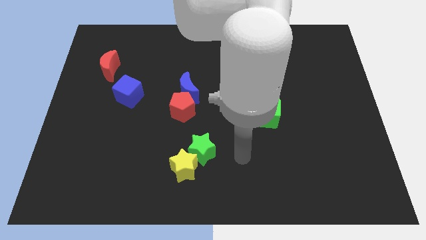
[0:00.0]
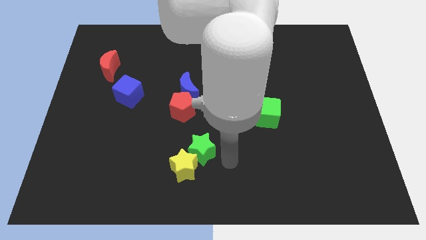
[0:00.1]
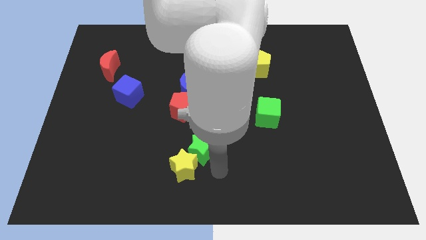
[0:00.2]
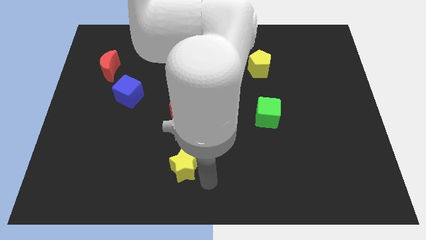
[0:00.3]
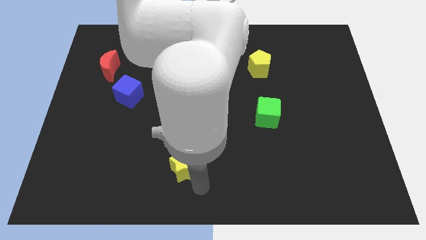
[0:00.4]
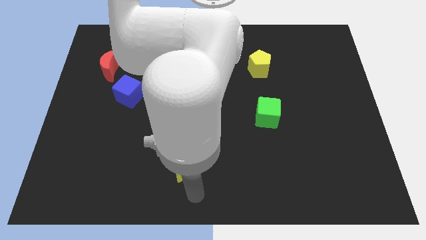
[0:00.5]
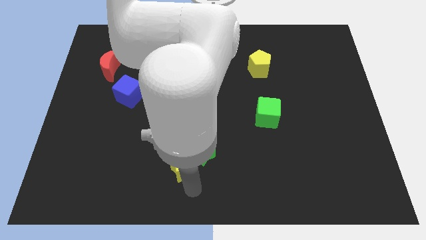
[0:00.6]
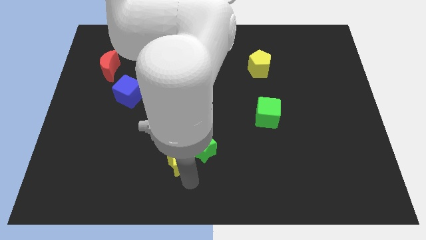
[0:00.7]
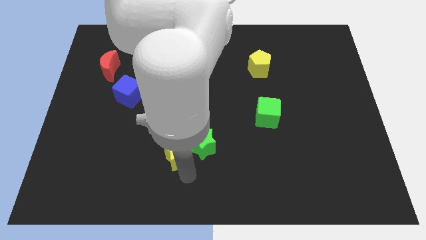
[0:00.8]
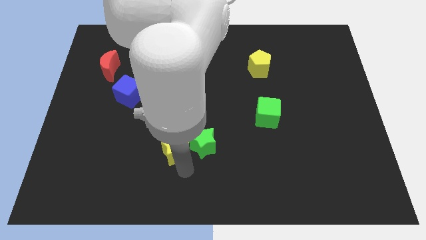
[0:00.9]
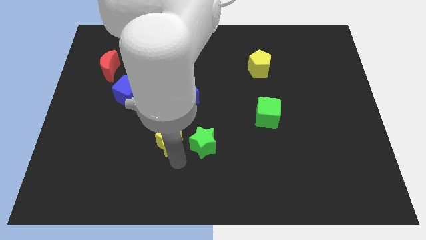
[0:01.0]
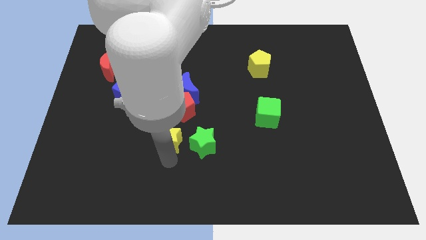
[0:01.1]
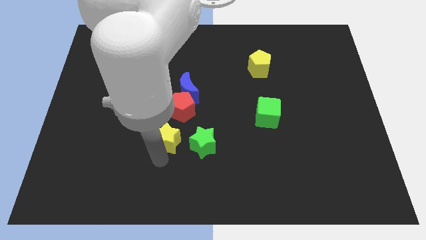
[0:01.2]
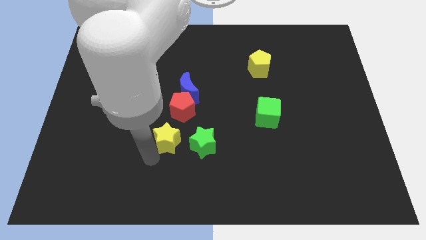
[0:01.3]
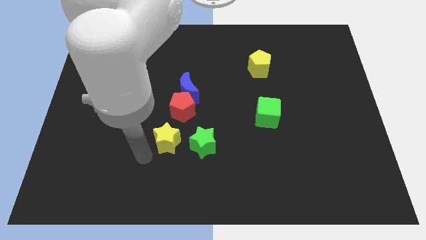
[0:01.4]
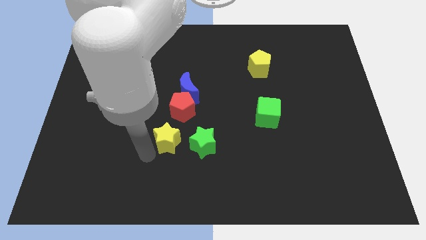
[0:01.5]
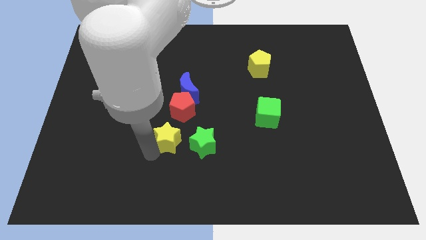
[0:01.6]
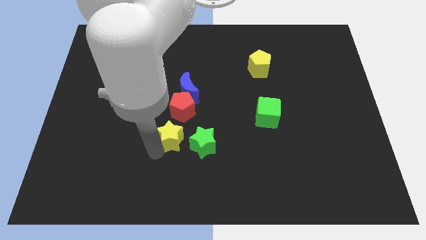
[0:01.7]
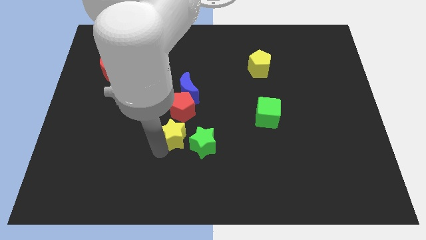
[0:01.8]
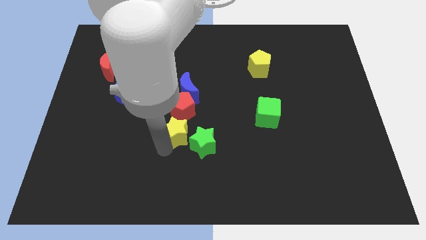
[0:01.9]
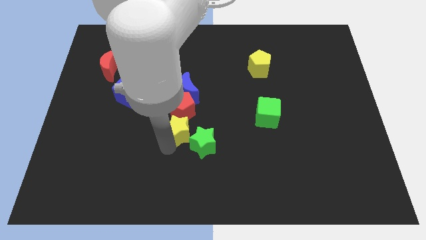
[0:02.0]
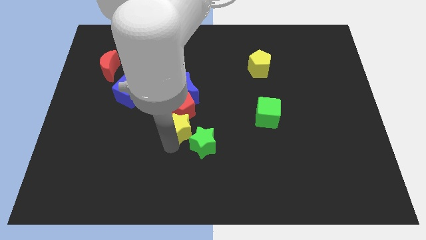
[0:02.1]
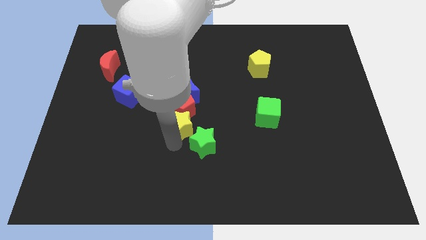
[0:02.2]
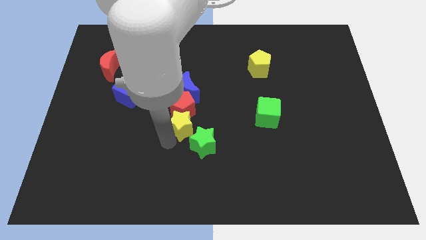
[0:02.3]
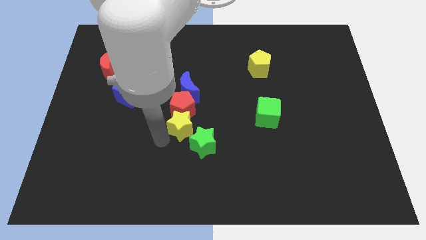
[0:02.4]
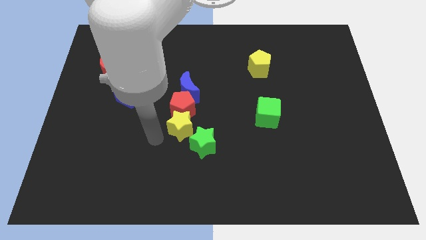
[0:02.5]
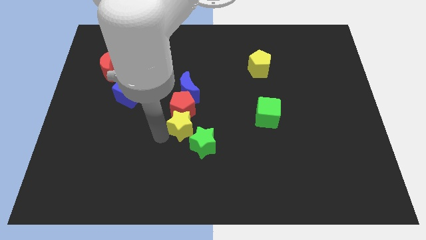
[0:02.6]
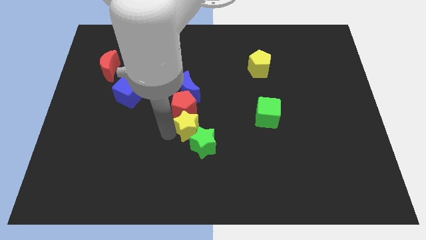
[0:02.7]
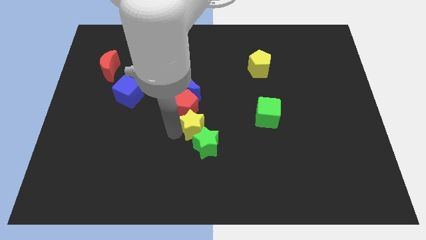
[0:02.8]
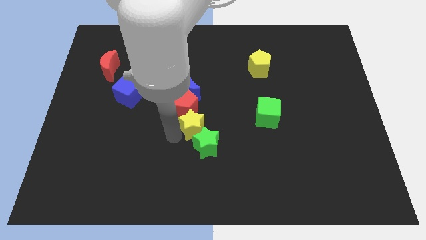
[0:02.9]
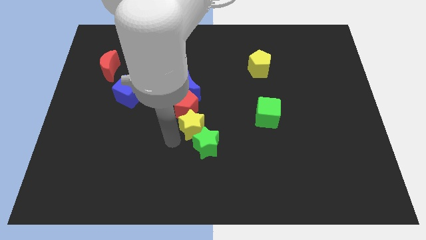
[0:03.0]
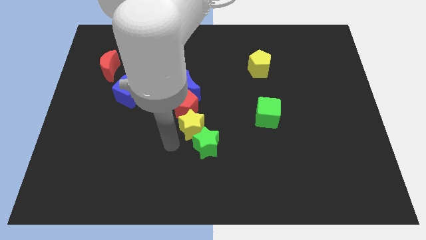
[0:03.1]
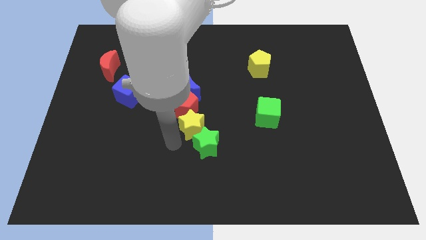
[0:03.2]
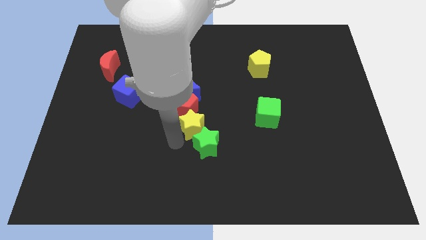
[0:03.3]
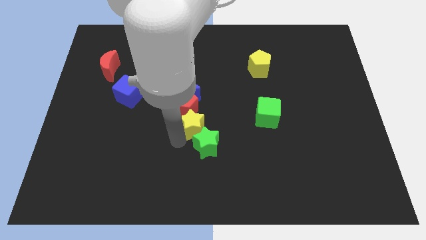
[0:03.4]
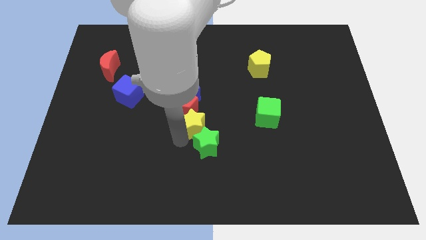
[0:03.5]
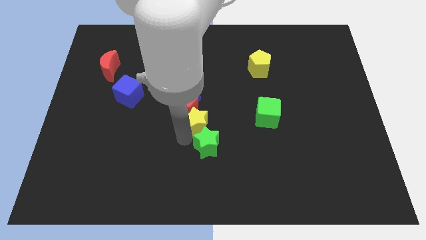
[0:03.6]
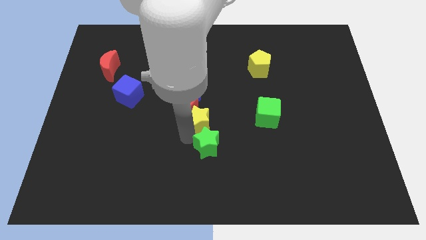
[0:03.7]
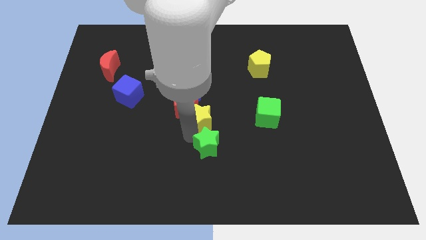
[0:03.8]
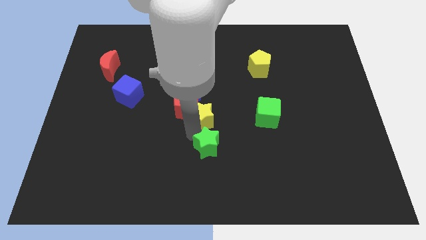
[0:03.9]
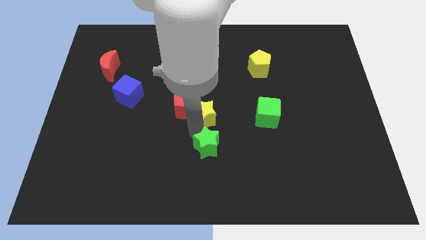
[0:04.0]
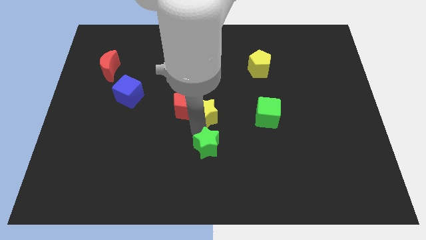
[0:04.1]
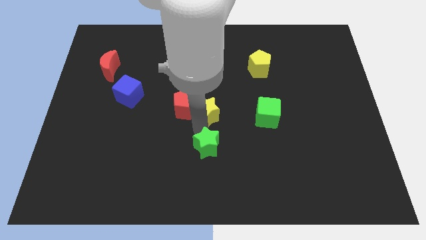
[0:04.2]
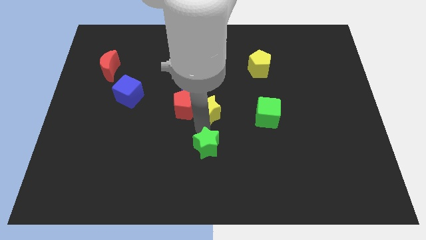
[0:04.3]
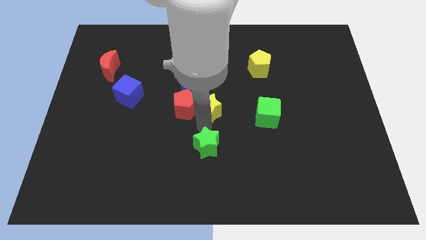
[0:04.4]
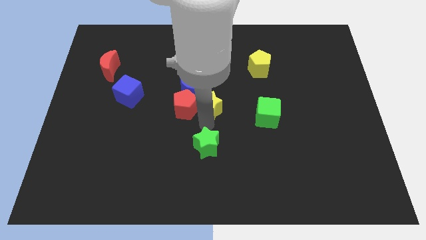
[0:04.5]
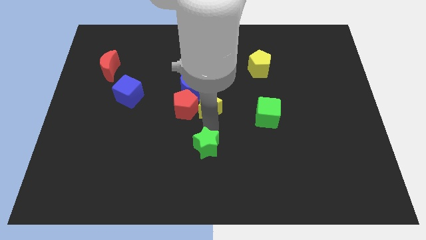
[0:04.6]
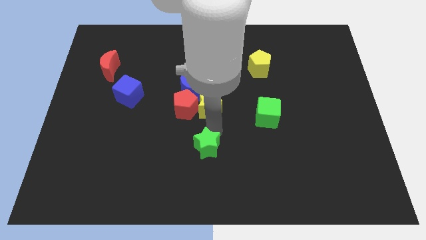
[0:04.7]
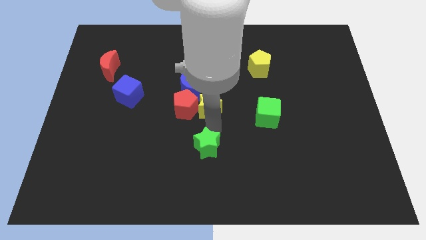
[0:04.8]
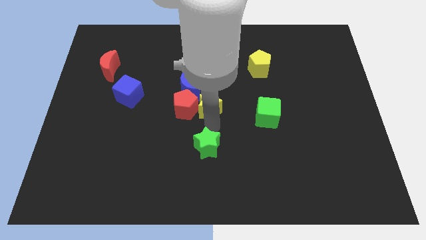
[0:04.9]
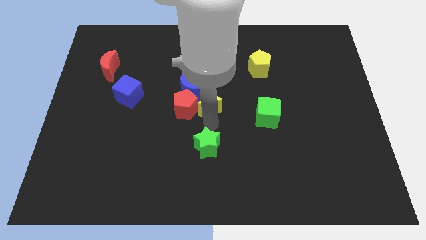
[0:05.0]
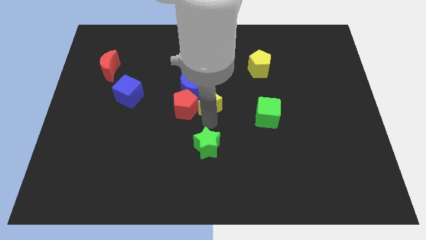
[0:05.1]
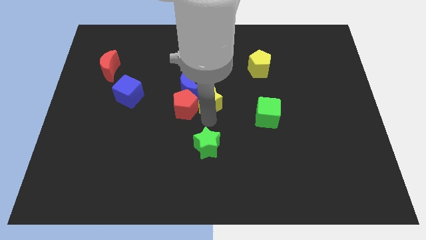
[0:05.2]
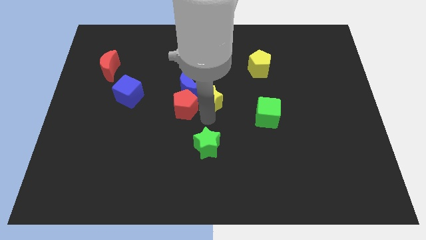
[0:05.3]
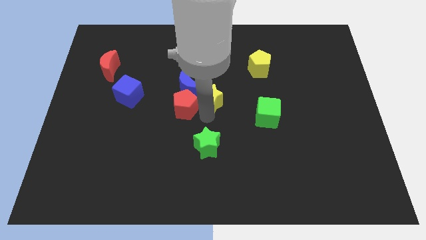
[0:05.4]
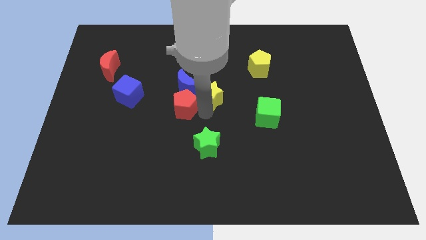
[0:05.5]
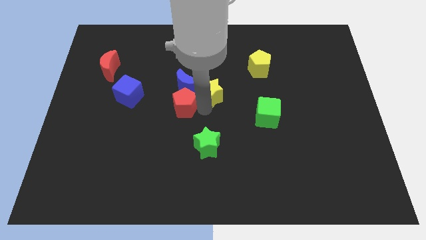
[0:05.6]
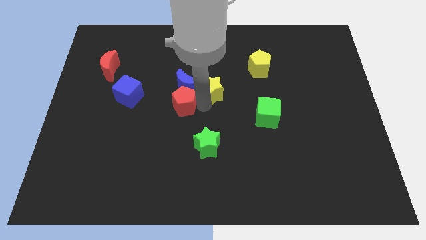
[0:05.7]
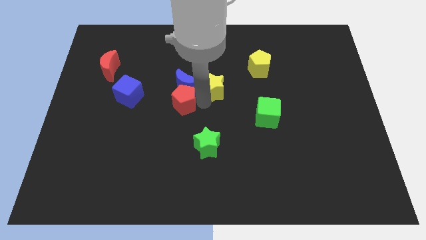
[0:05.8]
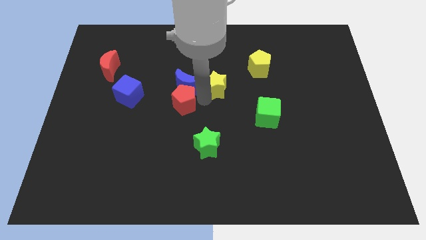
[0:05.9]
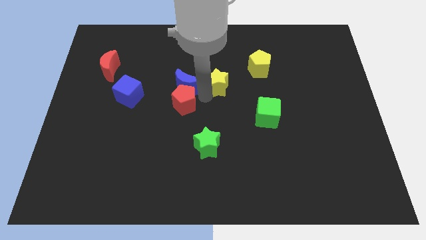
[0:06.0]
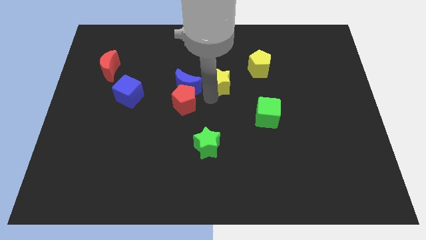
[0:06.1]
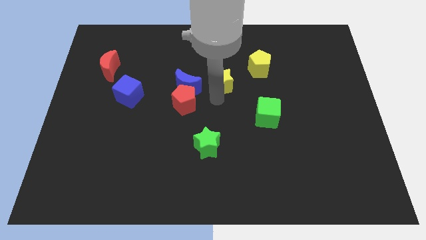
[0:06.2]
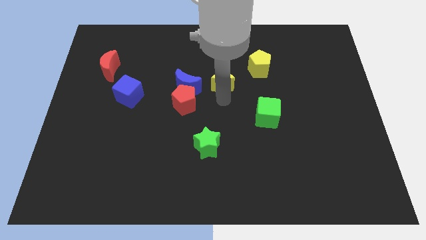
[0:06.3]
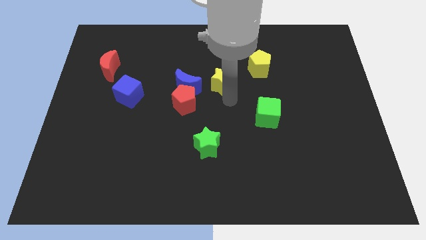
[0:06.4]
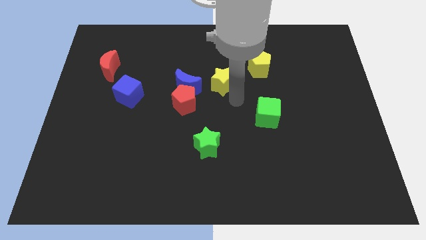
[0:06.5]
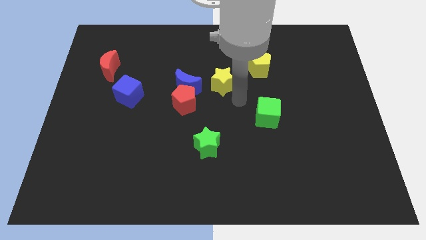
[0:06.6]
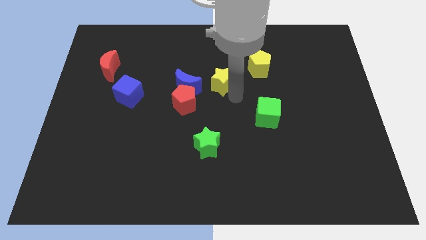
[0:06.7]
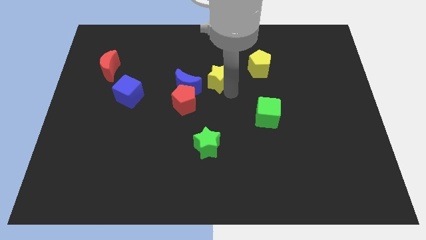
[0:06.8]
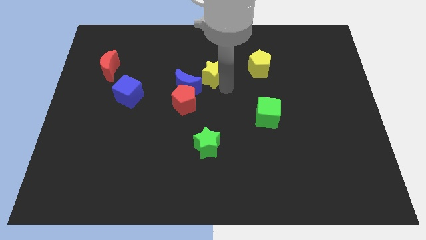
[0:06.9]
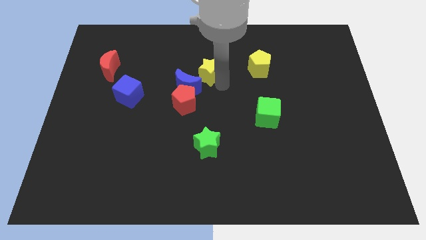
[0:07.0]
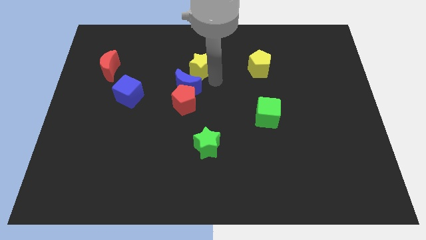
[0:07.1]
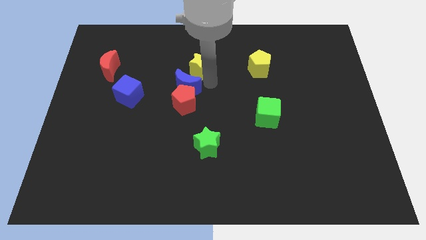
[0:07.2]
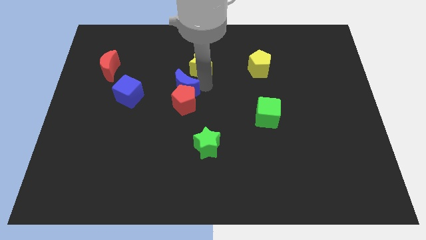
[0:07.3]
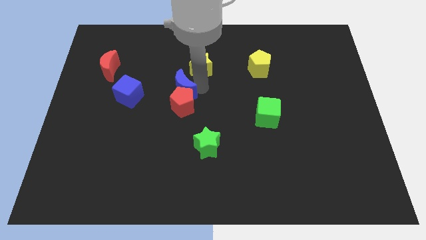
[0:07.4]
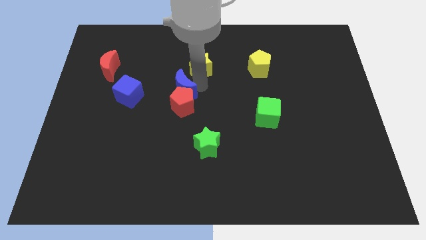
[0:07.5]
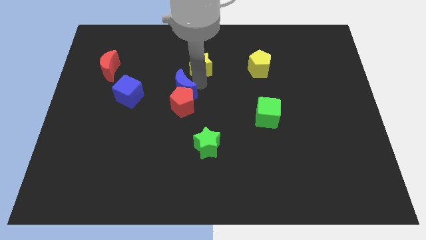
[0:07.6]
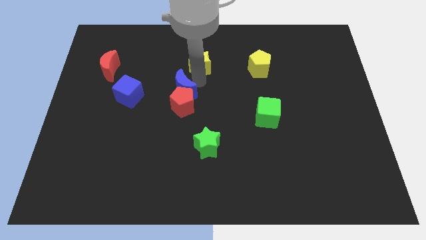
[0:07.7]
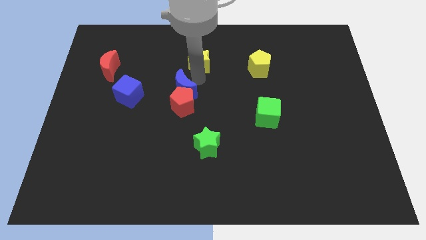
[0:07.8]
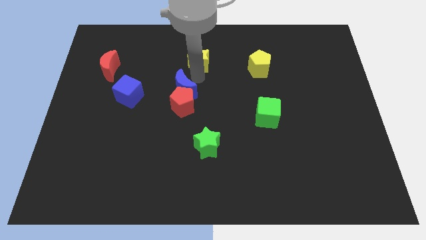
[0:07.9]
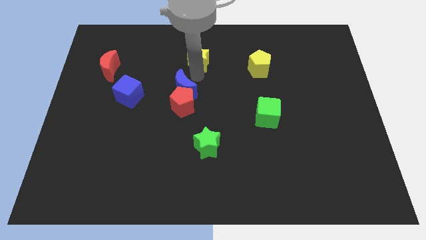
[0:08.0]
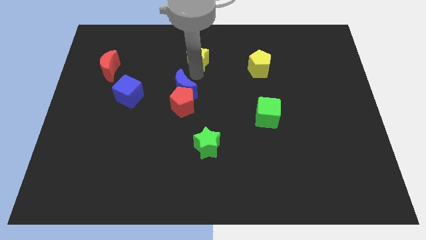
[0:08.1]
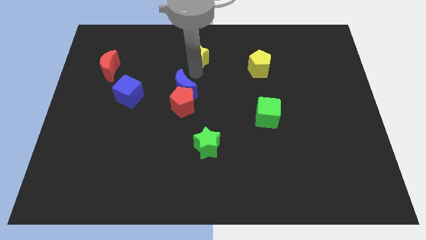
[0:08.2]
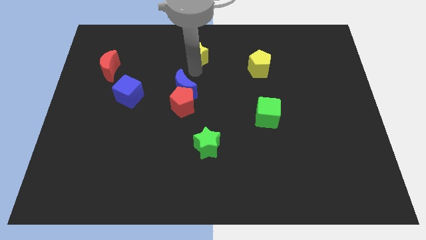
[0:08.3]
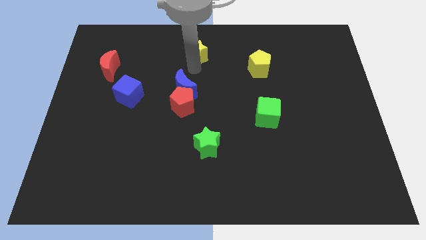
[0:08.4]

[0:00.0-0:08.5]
slide the yellow star to the top
